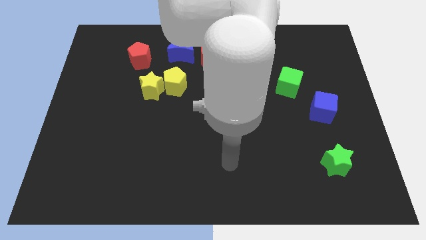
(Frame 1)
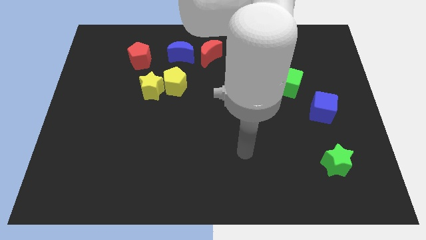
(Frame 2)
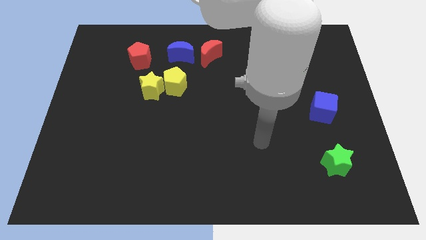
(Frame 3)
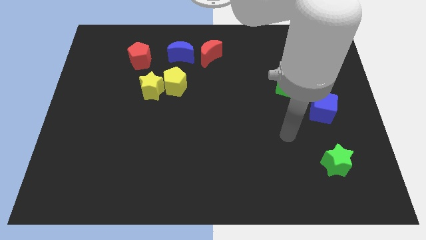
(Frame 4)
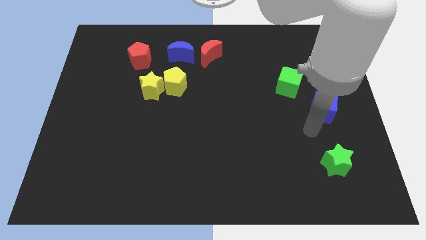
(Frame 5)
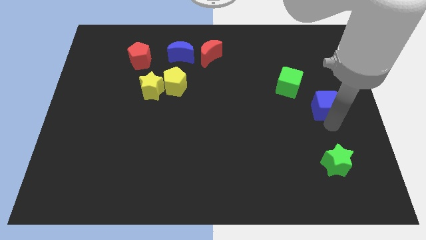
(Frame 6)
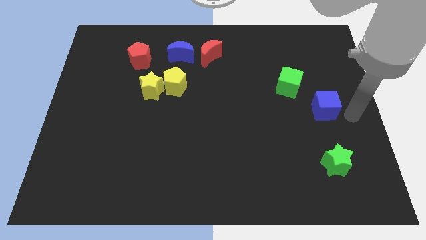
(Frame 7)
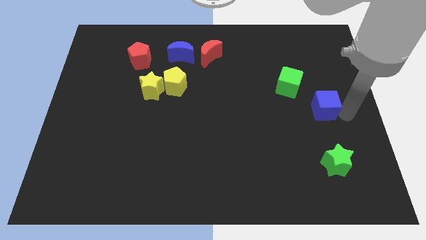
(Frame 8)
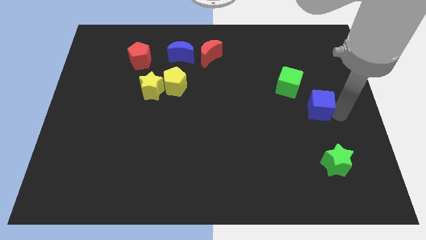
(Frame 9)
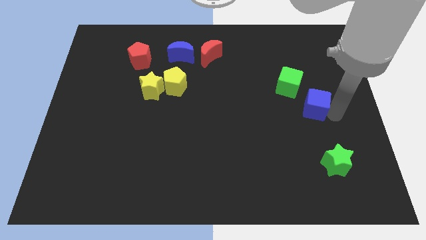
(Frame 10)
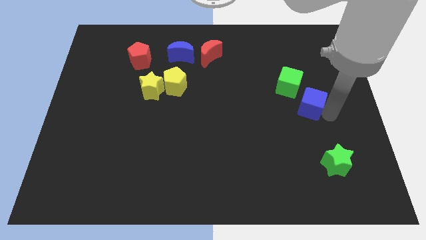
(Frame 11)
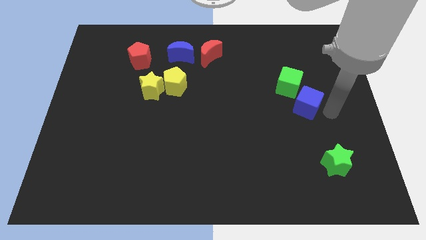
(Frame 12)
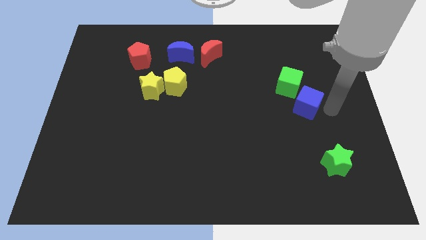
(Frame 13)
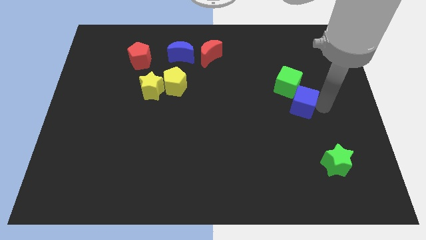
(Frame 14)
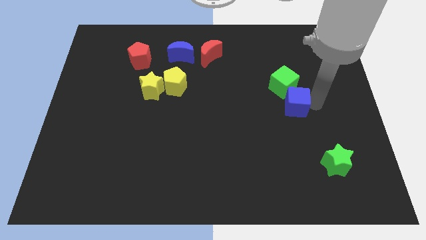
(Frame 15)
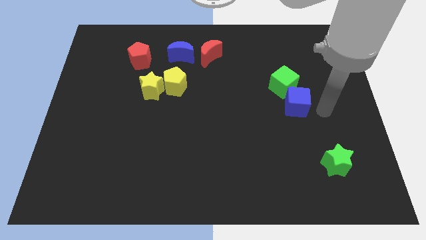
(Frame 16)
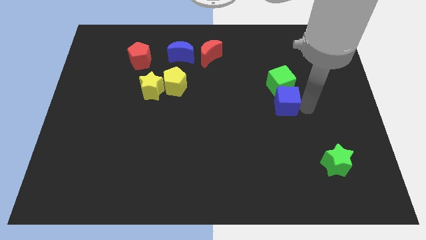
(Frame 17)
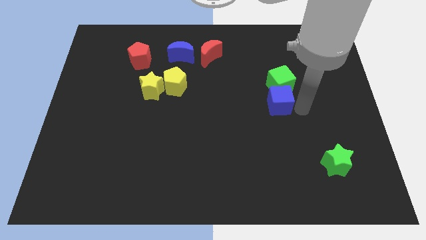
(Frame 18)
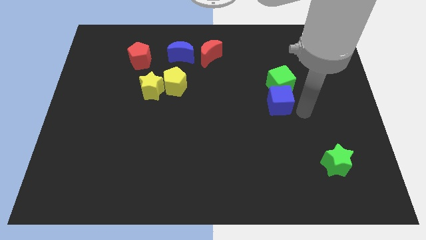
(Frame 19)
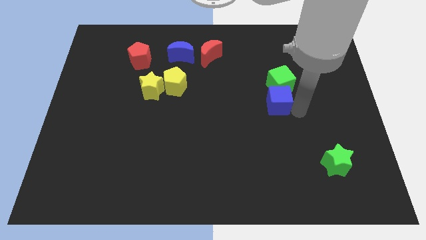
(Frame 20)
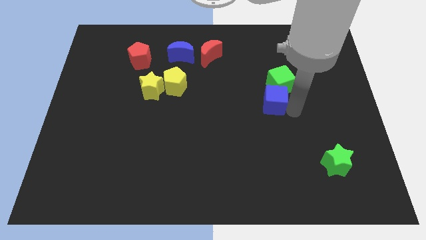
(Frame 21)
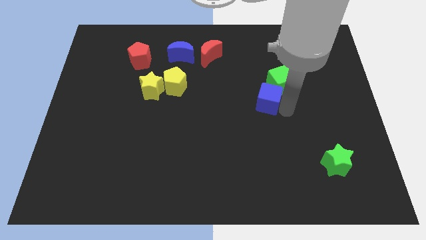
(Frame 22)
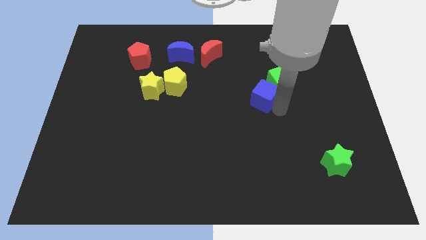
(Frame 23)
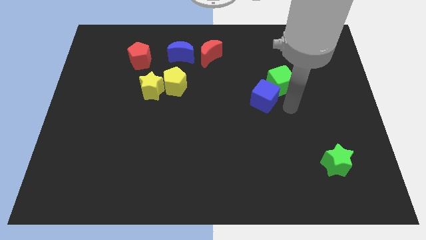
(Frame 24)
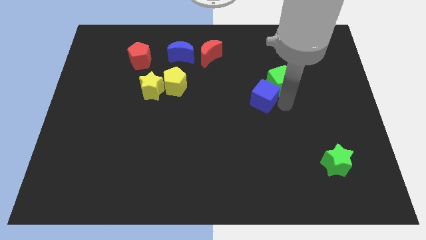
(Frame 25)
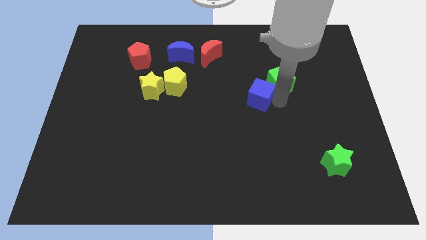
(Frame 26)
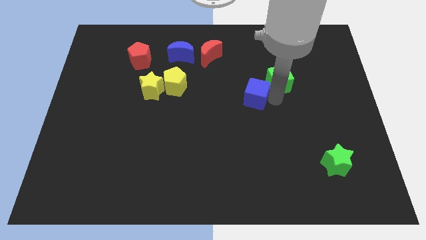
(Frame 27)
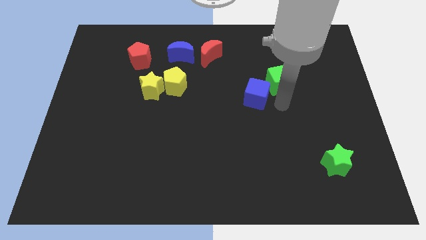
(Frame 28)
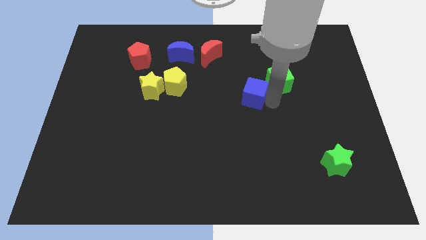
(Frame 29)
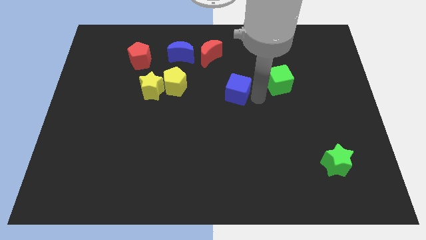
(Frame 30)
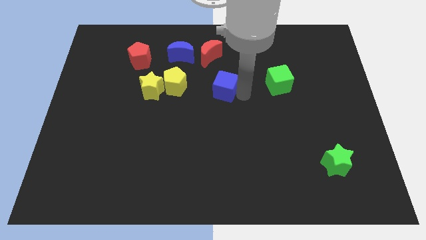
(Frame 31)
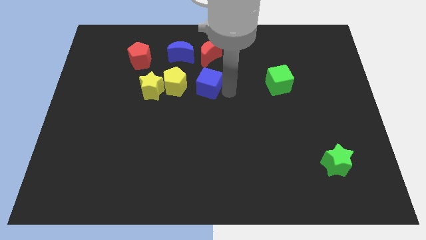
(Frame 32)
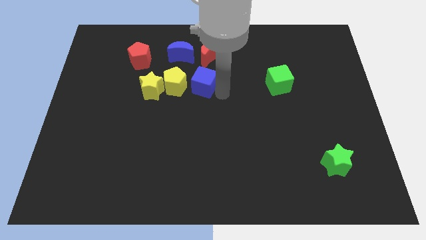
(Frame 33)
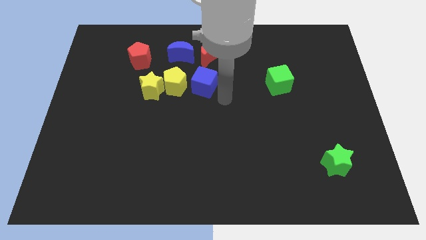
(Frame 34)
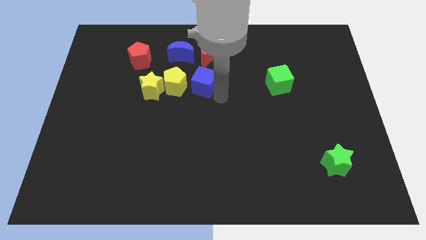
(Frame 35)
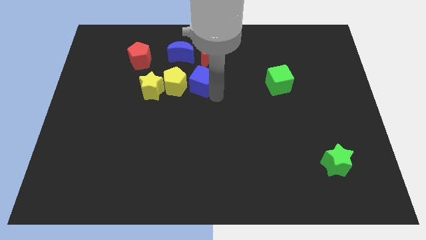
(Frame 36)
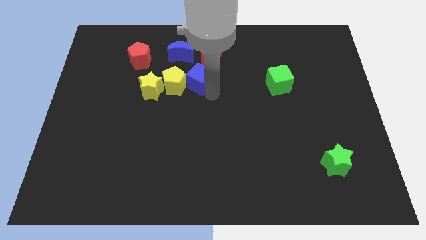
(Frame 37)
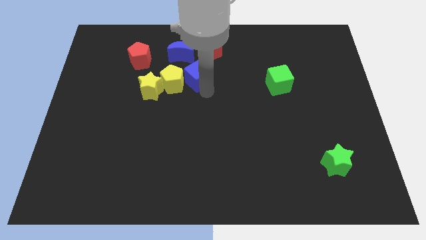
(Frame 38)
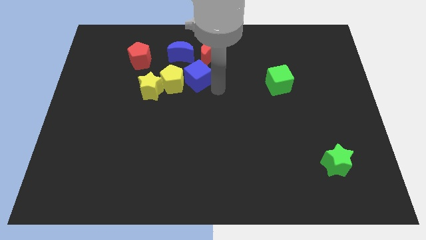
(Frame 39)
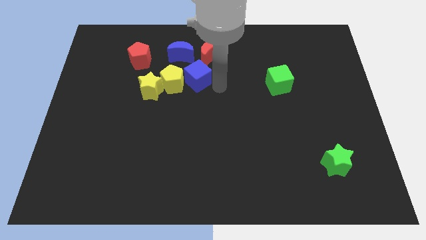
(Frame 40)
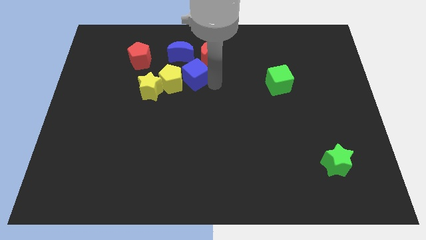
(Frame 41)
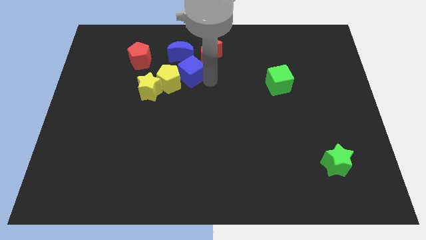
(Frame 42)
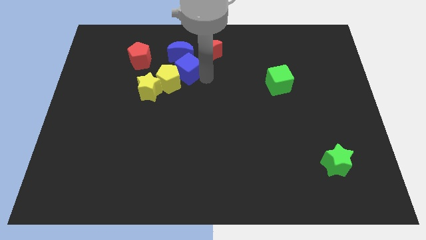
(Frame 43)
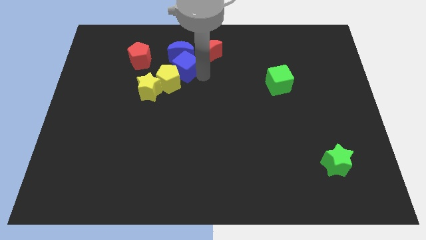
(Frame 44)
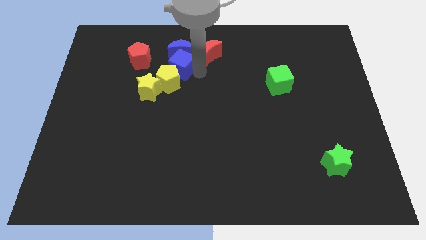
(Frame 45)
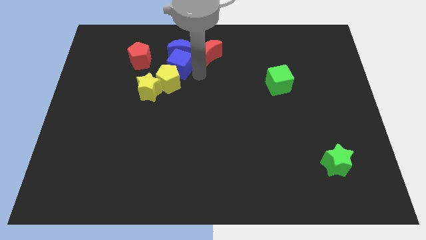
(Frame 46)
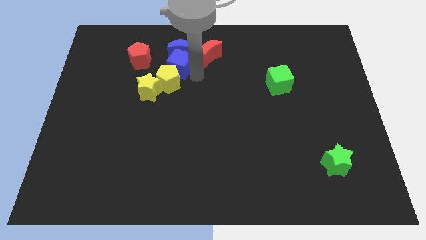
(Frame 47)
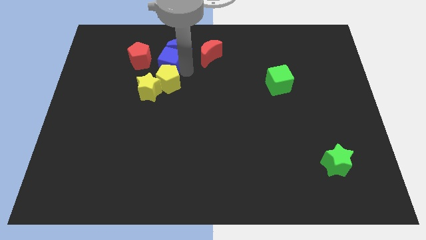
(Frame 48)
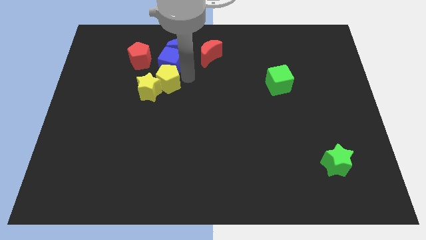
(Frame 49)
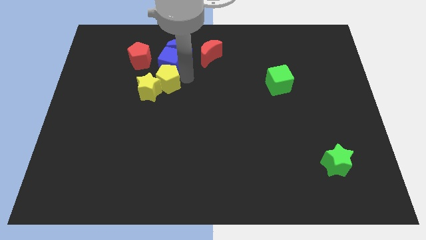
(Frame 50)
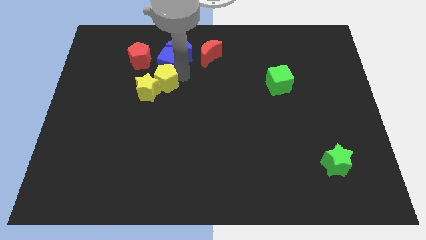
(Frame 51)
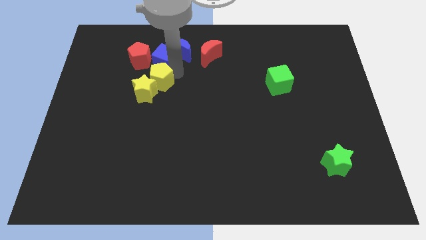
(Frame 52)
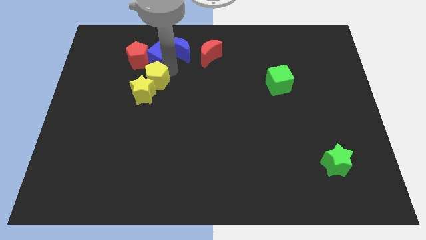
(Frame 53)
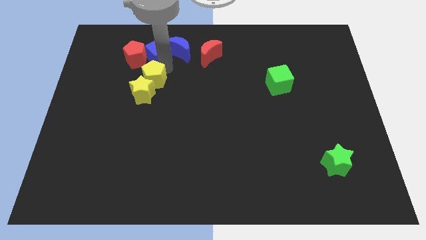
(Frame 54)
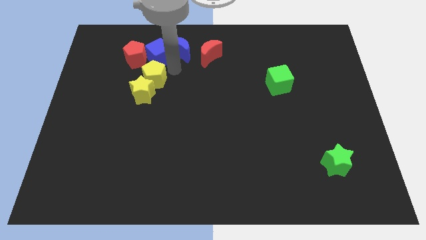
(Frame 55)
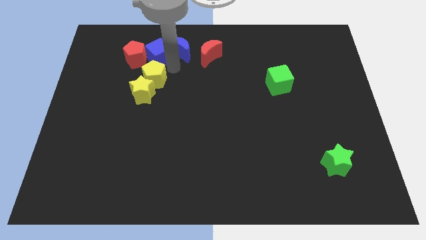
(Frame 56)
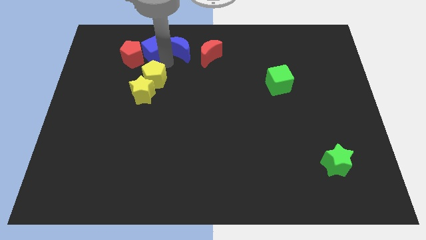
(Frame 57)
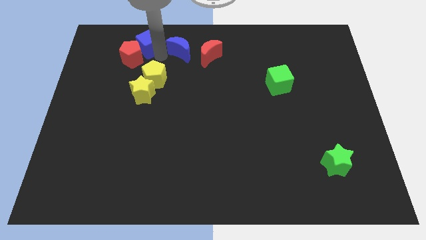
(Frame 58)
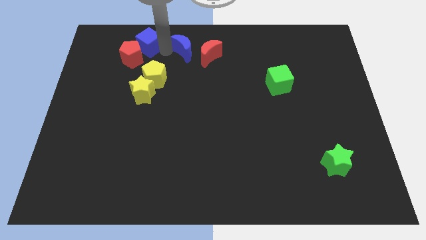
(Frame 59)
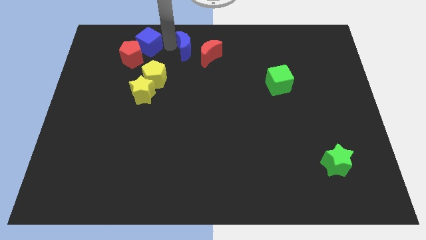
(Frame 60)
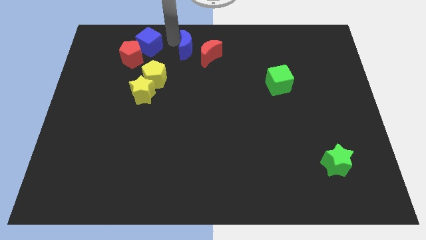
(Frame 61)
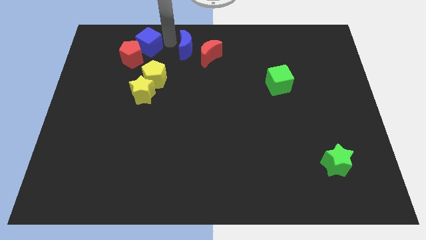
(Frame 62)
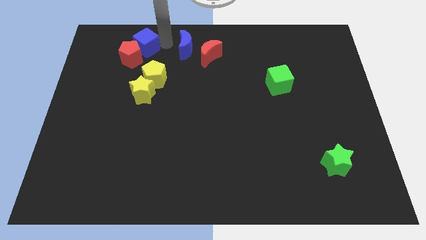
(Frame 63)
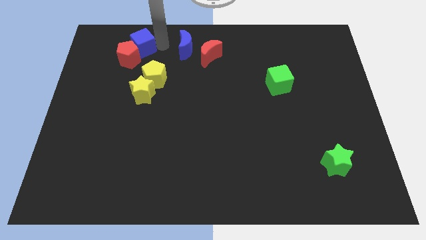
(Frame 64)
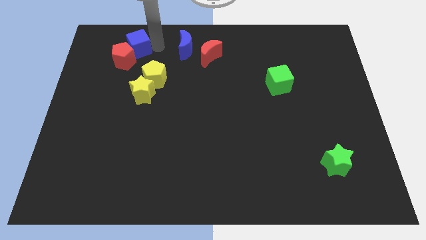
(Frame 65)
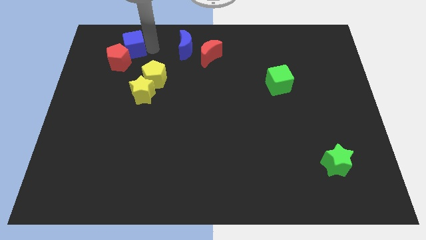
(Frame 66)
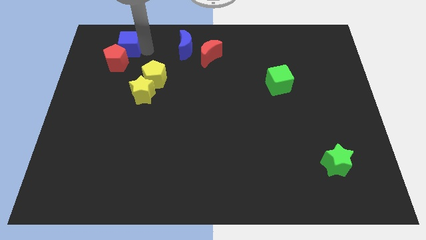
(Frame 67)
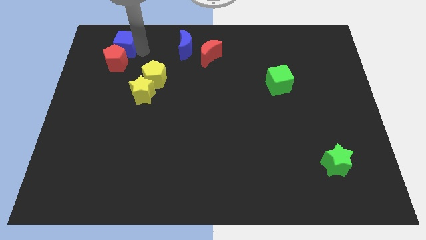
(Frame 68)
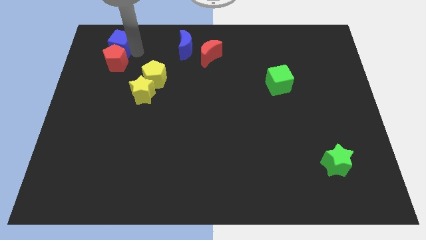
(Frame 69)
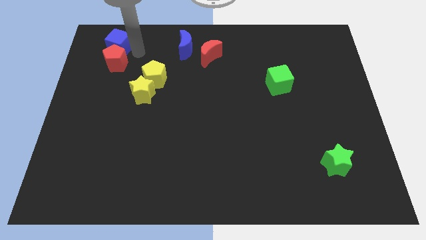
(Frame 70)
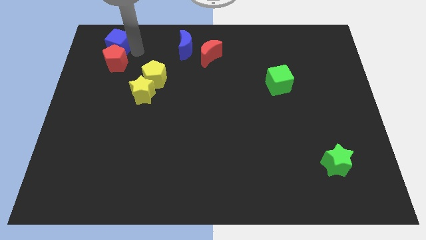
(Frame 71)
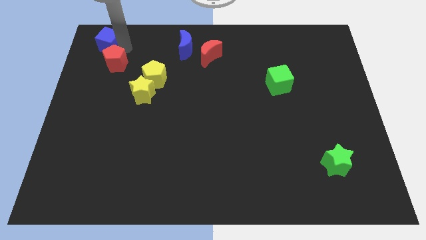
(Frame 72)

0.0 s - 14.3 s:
move the blue cube to the top left corner
